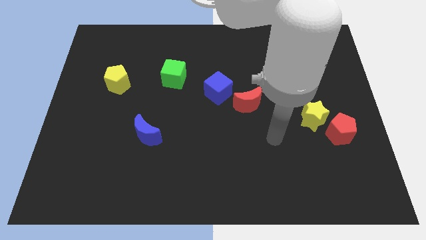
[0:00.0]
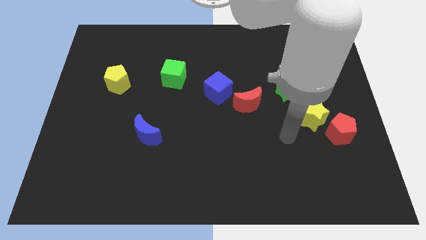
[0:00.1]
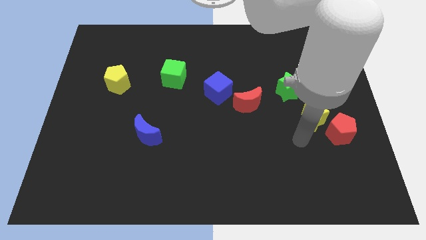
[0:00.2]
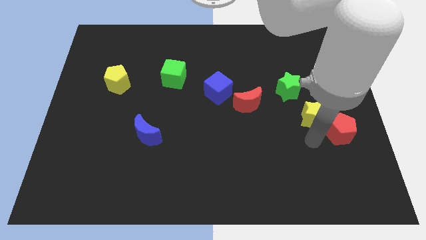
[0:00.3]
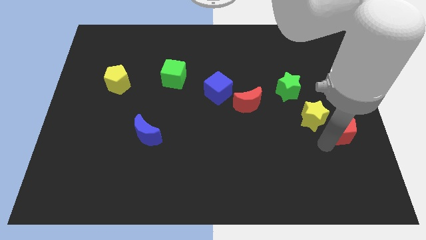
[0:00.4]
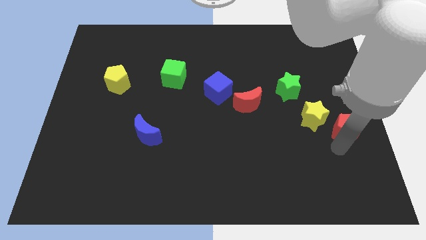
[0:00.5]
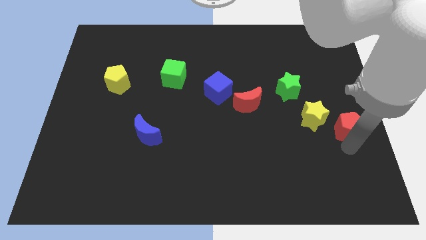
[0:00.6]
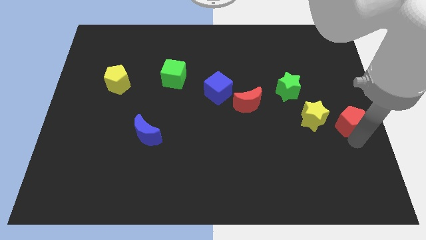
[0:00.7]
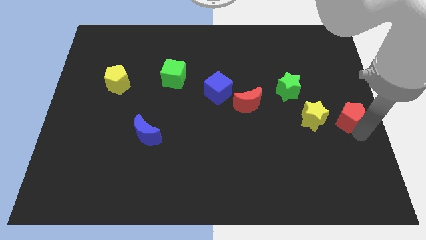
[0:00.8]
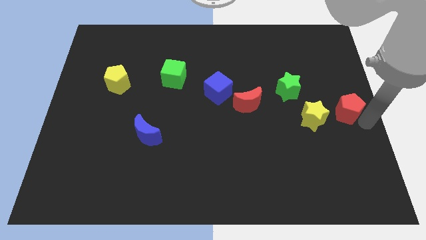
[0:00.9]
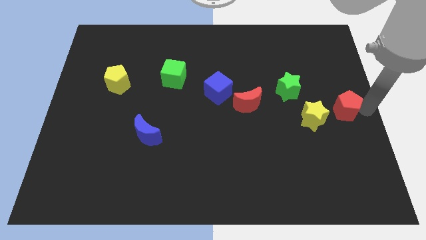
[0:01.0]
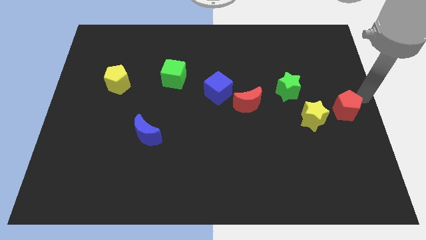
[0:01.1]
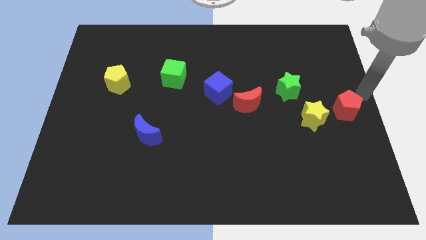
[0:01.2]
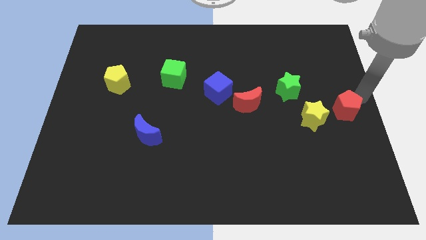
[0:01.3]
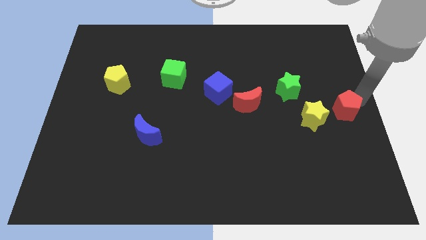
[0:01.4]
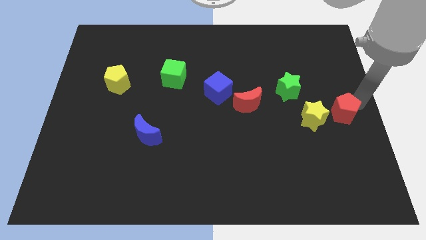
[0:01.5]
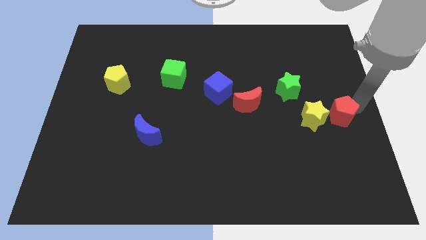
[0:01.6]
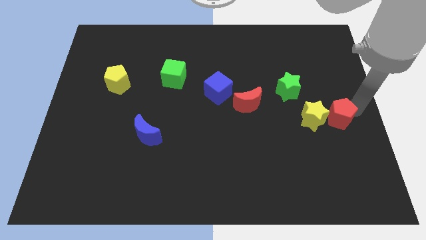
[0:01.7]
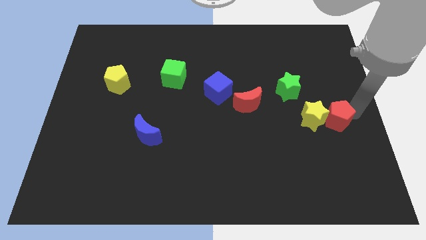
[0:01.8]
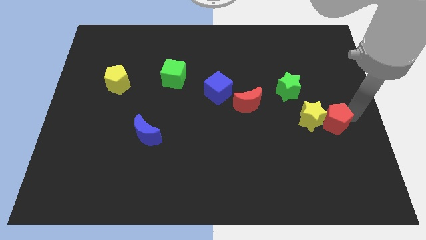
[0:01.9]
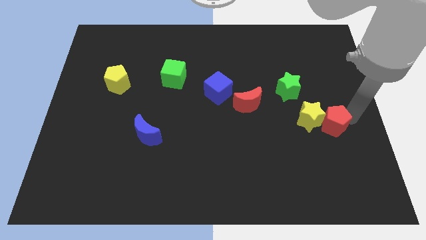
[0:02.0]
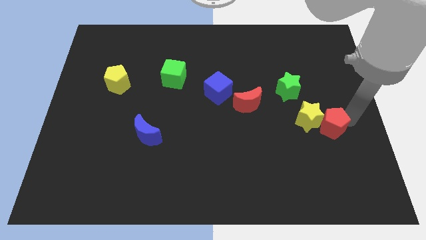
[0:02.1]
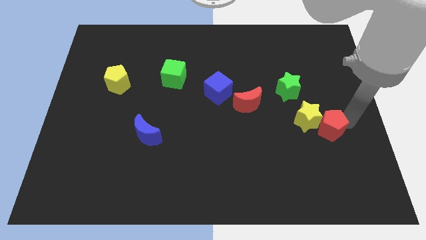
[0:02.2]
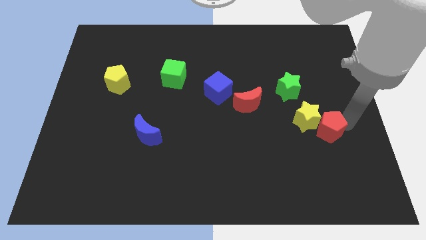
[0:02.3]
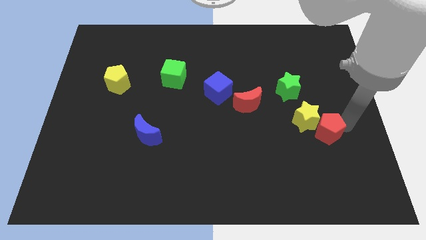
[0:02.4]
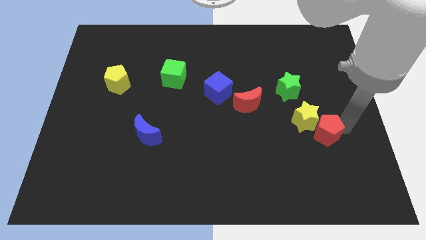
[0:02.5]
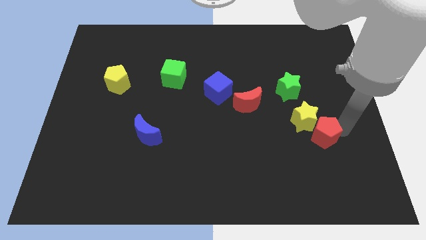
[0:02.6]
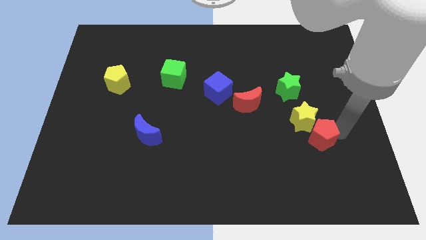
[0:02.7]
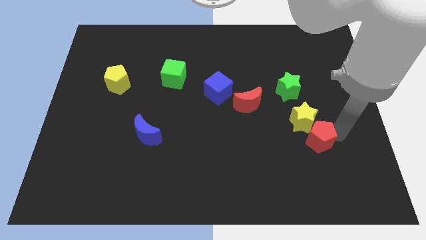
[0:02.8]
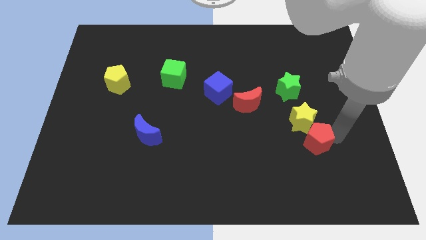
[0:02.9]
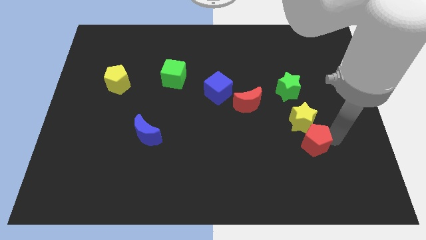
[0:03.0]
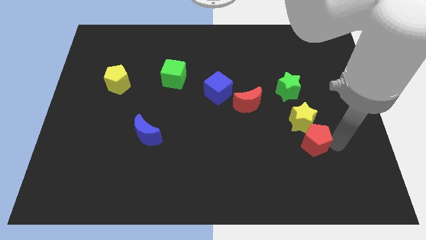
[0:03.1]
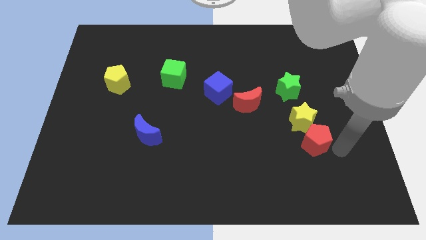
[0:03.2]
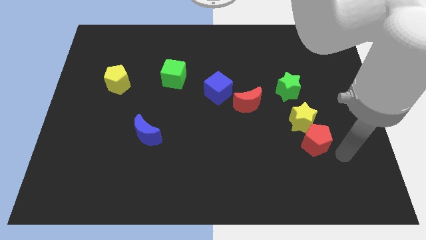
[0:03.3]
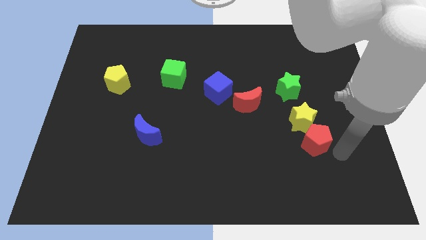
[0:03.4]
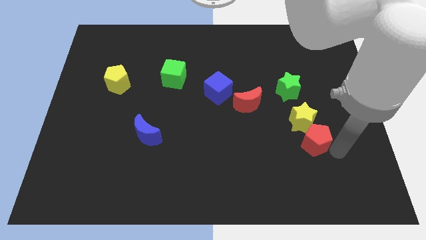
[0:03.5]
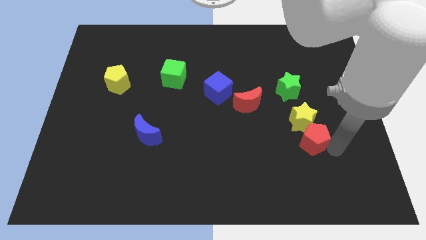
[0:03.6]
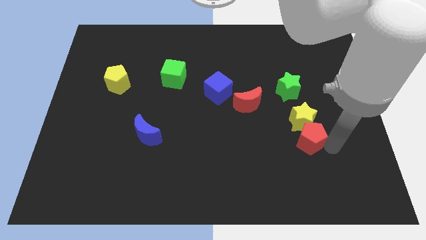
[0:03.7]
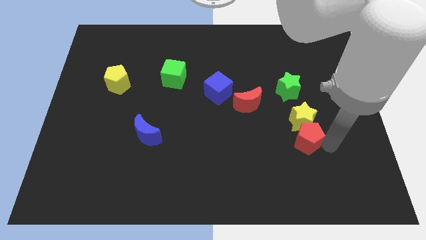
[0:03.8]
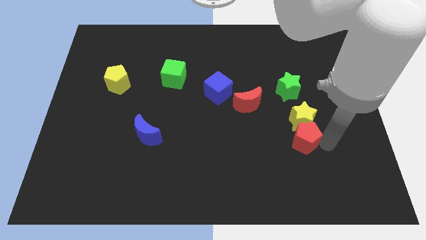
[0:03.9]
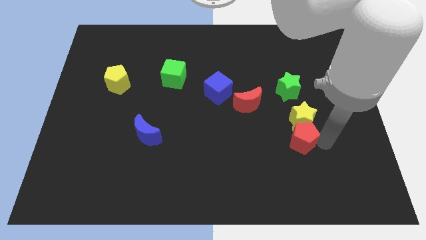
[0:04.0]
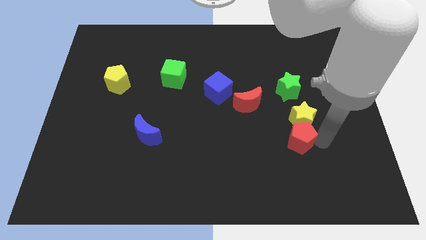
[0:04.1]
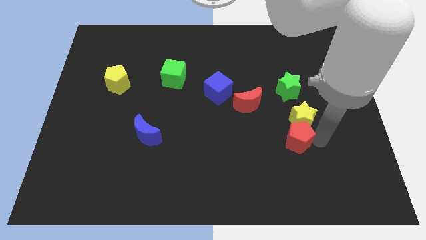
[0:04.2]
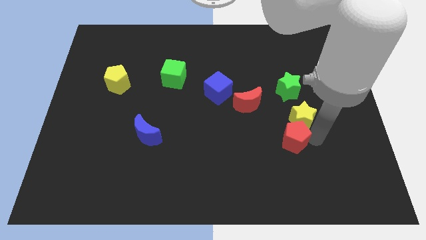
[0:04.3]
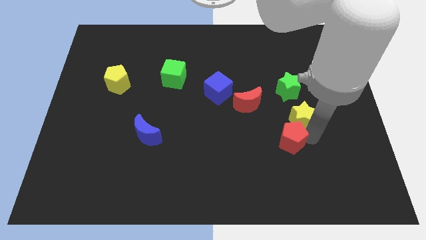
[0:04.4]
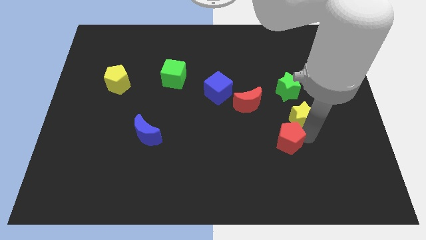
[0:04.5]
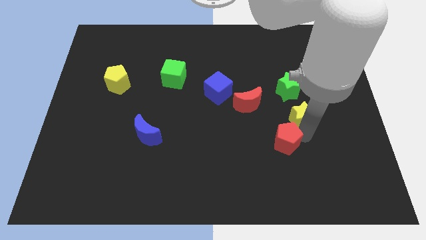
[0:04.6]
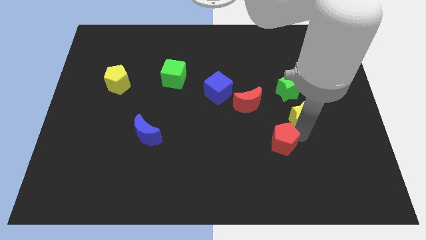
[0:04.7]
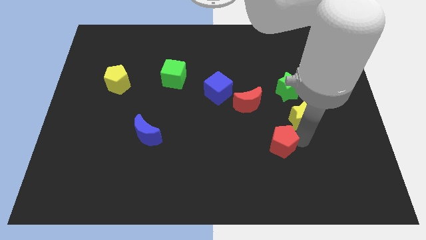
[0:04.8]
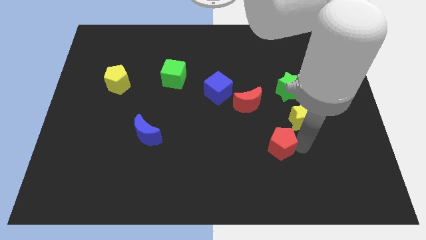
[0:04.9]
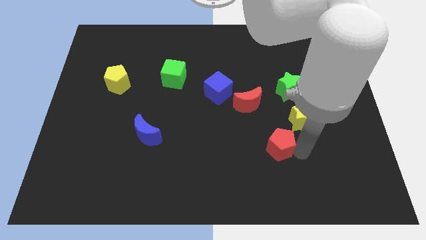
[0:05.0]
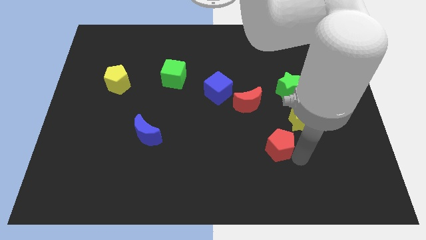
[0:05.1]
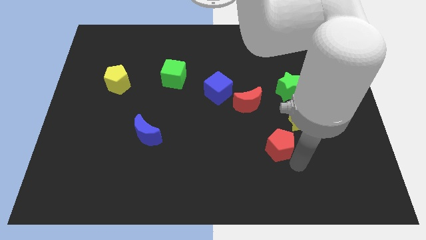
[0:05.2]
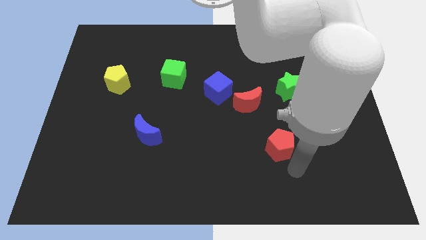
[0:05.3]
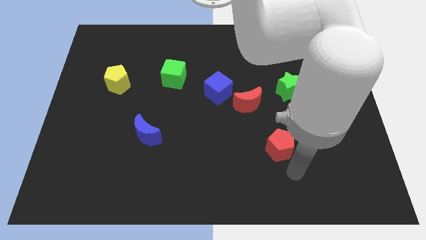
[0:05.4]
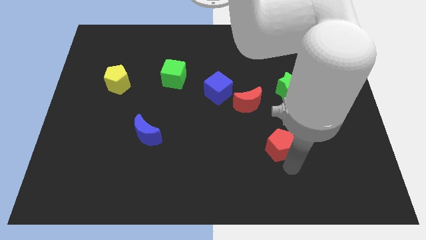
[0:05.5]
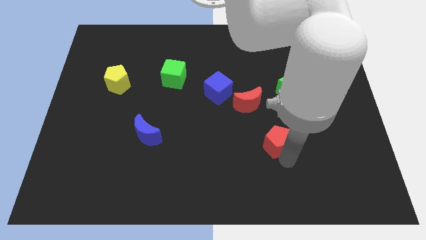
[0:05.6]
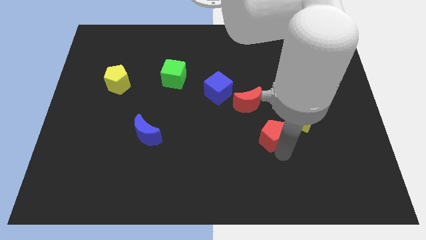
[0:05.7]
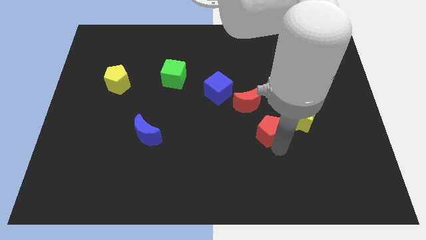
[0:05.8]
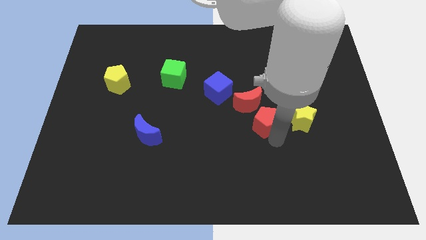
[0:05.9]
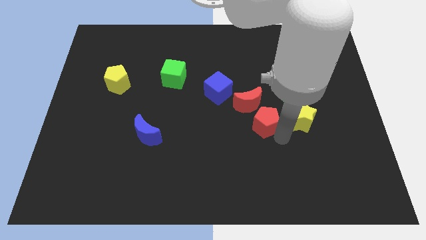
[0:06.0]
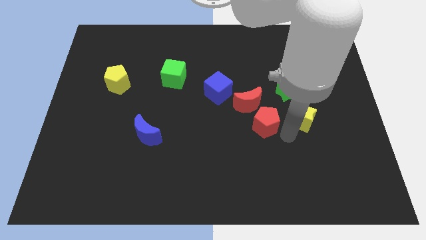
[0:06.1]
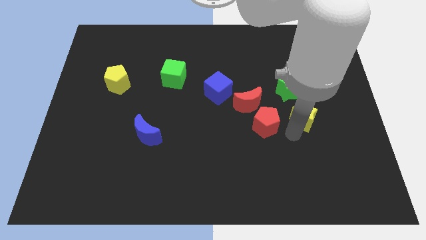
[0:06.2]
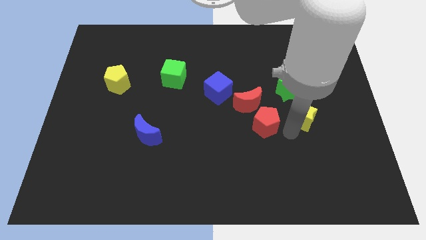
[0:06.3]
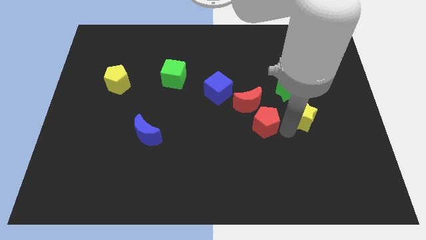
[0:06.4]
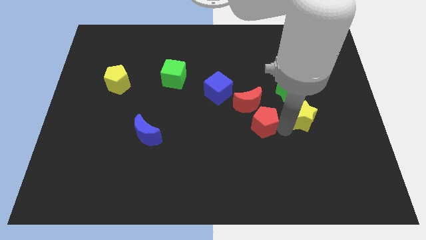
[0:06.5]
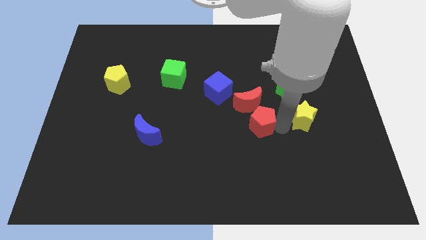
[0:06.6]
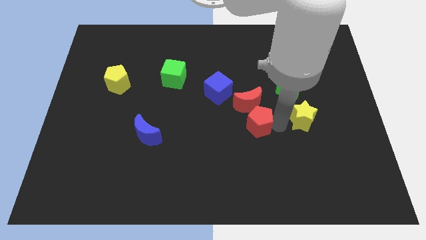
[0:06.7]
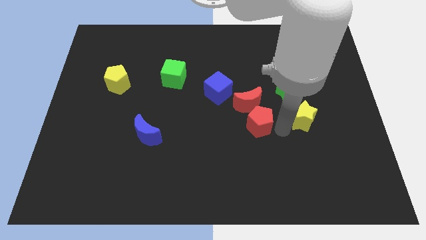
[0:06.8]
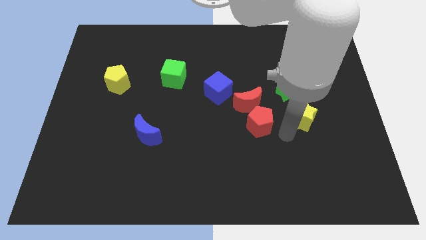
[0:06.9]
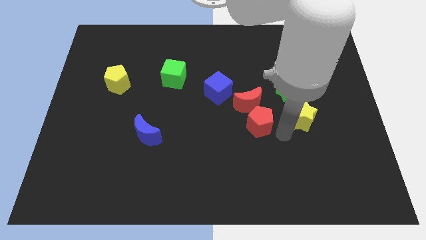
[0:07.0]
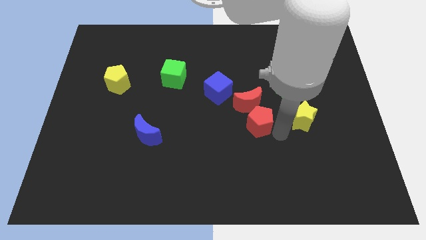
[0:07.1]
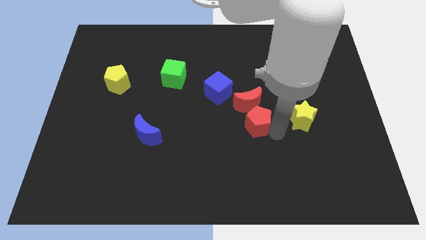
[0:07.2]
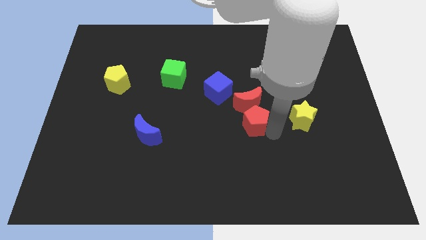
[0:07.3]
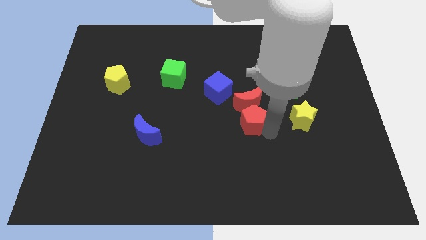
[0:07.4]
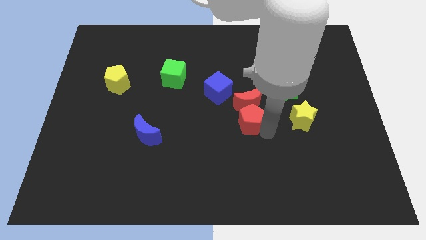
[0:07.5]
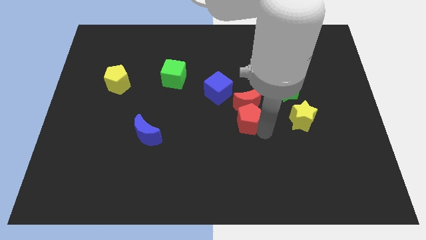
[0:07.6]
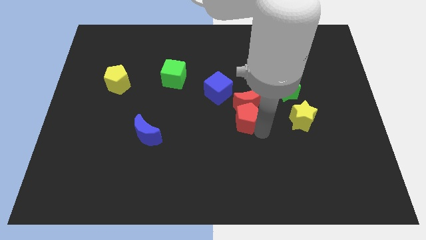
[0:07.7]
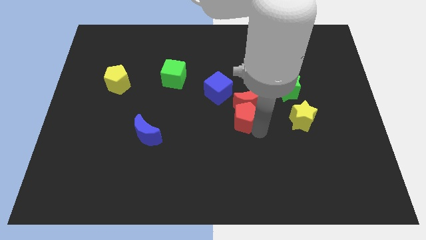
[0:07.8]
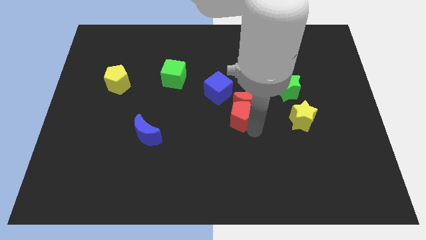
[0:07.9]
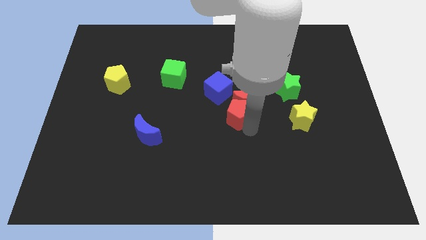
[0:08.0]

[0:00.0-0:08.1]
push the red pentagon to the left side of the red moon
